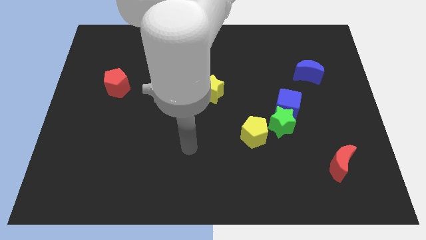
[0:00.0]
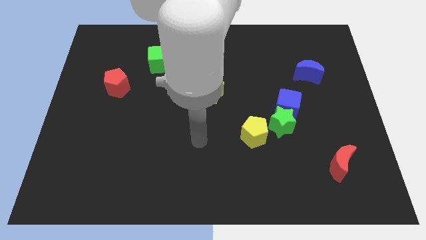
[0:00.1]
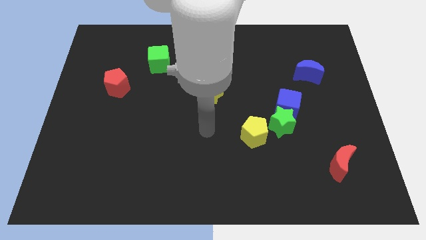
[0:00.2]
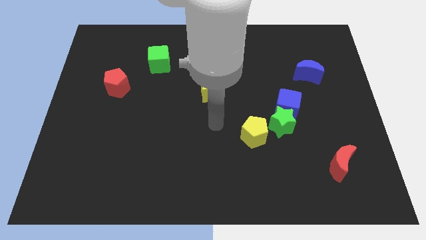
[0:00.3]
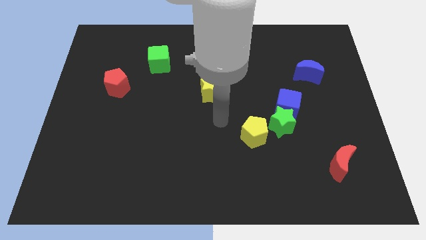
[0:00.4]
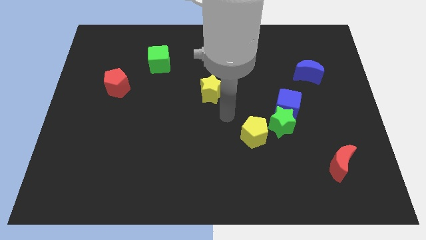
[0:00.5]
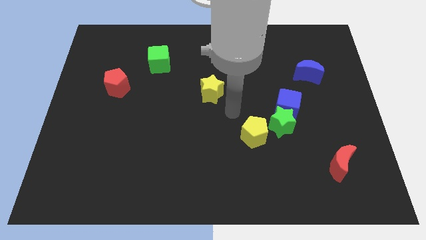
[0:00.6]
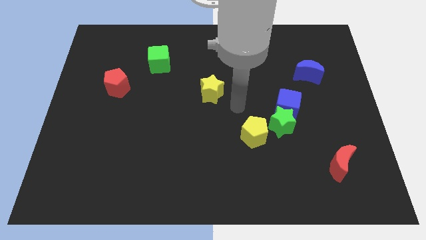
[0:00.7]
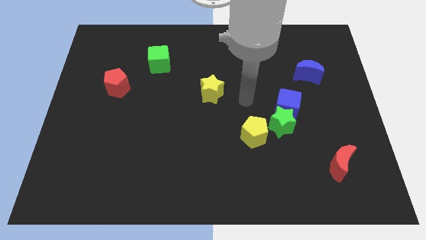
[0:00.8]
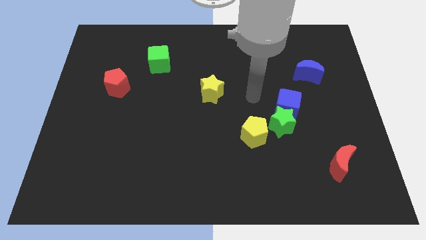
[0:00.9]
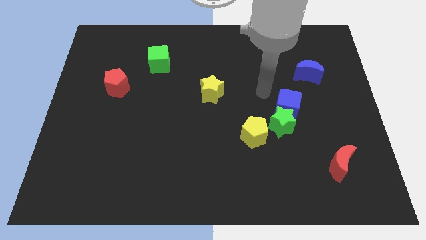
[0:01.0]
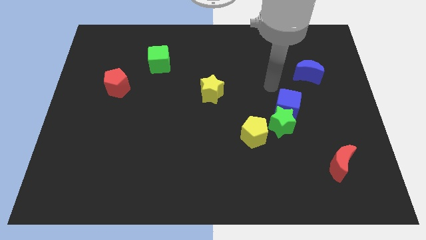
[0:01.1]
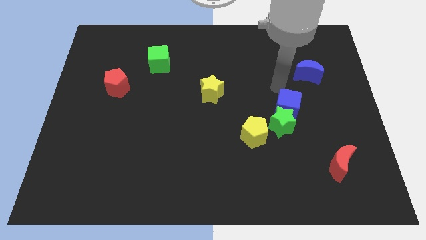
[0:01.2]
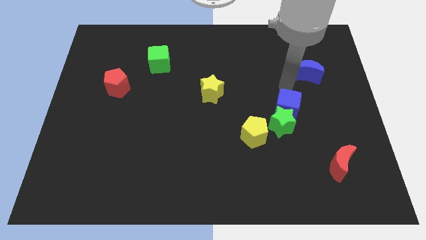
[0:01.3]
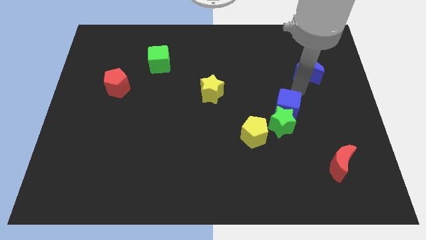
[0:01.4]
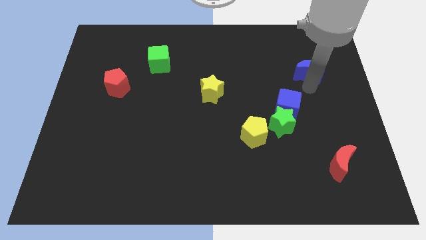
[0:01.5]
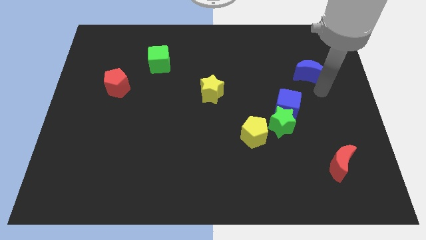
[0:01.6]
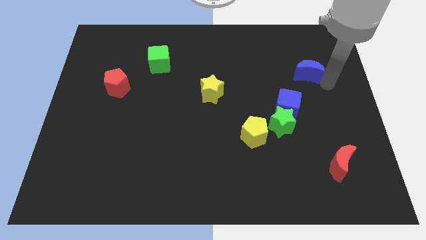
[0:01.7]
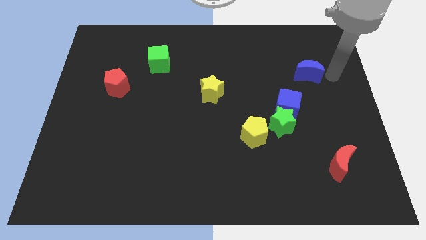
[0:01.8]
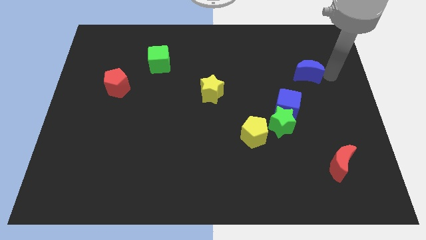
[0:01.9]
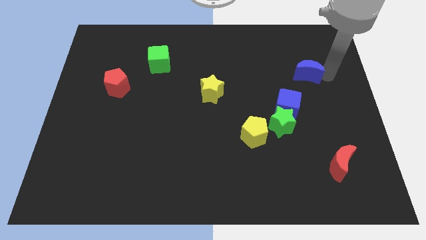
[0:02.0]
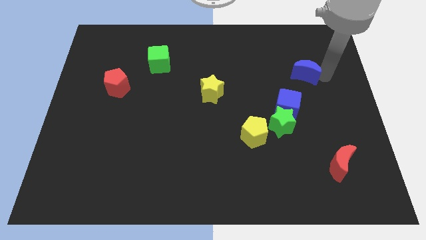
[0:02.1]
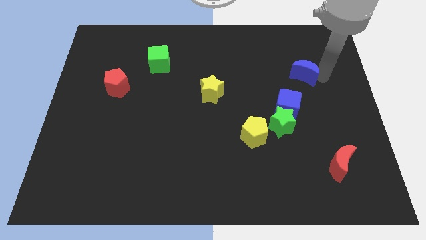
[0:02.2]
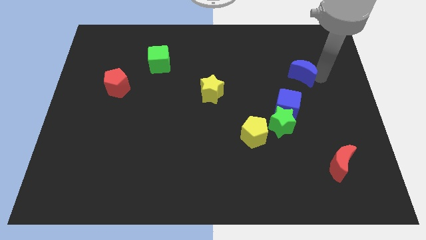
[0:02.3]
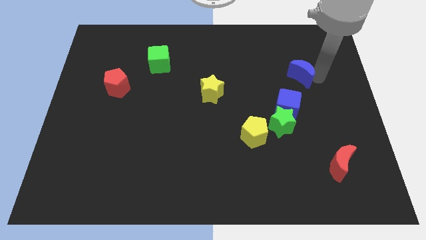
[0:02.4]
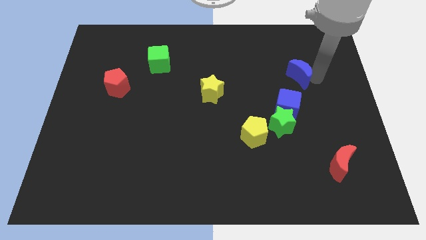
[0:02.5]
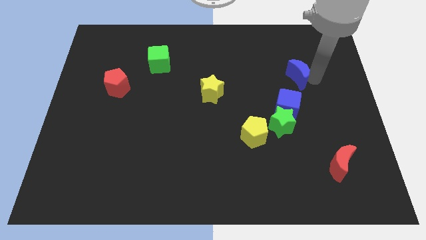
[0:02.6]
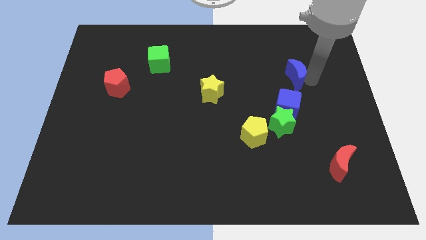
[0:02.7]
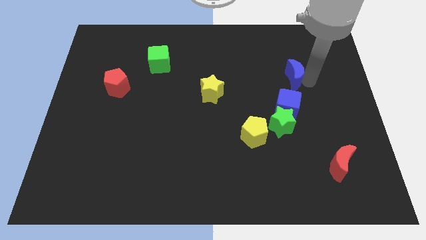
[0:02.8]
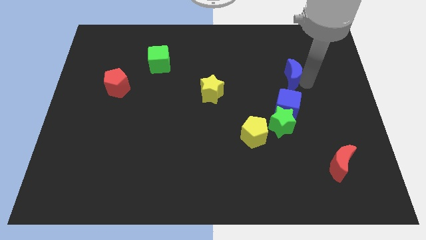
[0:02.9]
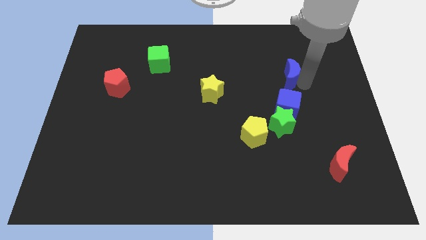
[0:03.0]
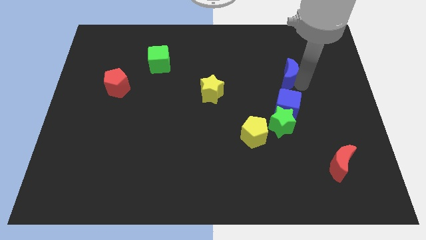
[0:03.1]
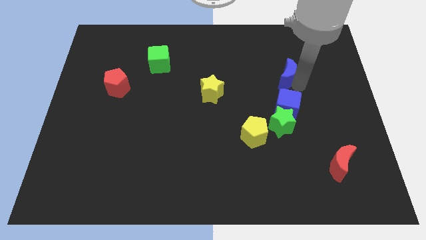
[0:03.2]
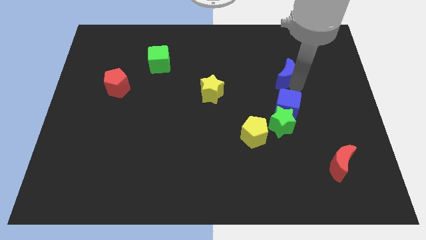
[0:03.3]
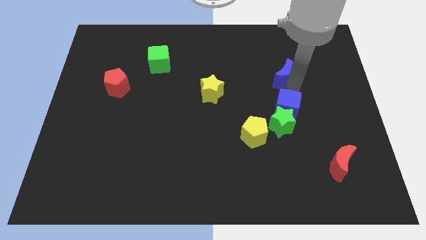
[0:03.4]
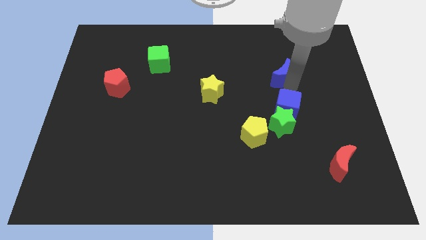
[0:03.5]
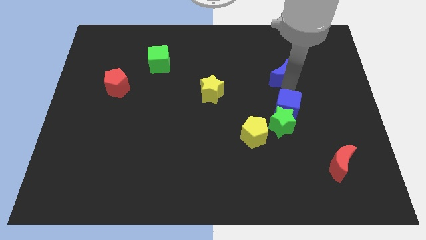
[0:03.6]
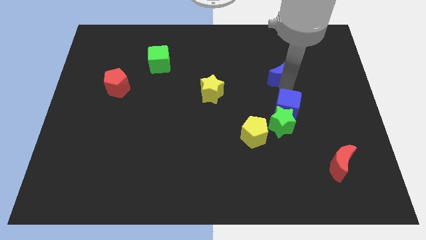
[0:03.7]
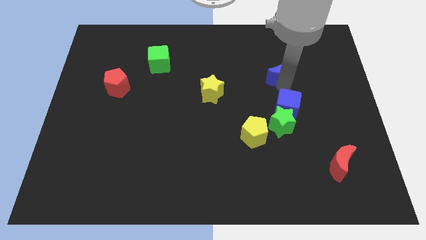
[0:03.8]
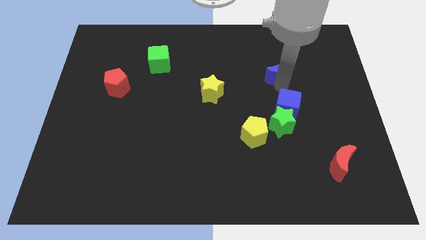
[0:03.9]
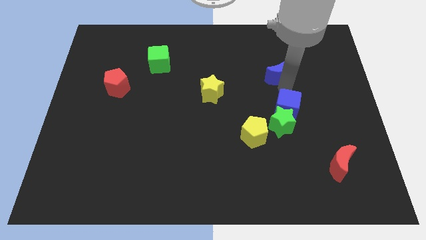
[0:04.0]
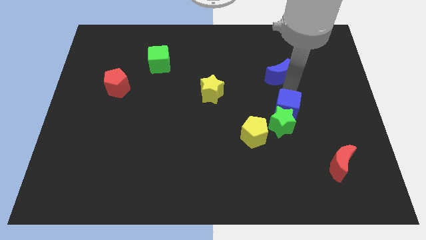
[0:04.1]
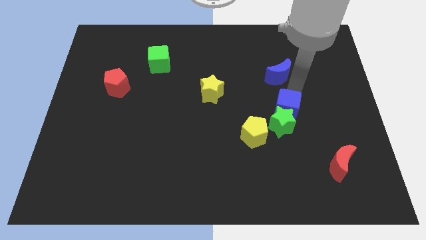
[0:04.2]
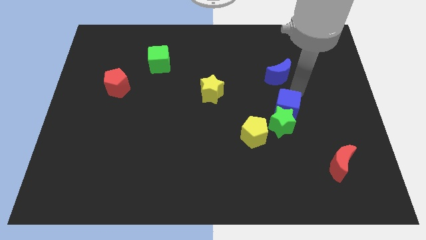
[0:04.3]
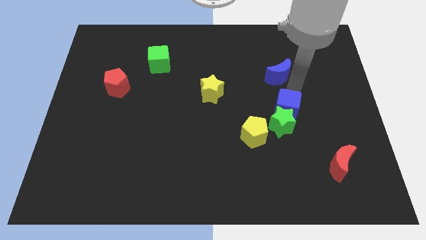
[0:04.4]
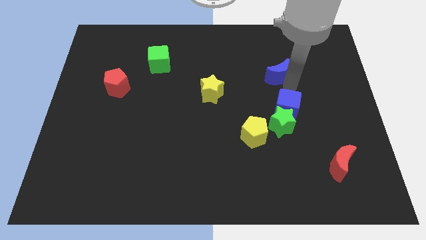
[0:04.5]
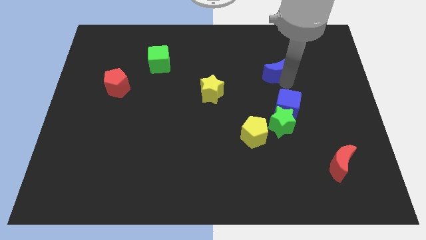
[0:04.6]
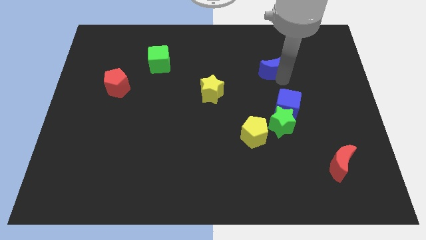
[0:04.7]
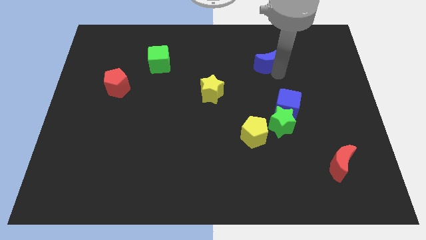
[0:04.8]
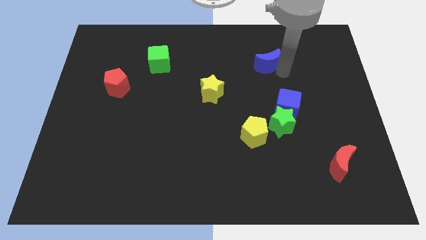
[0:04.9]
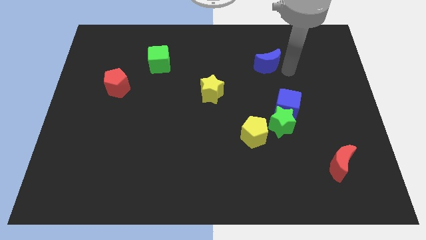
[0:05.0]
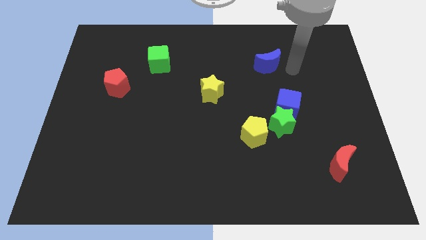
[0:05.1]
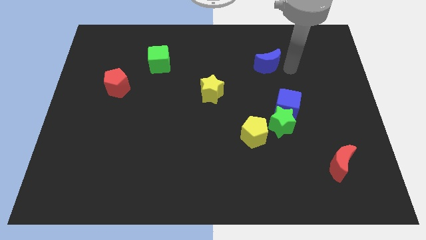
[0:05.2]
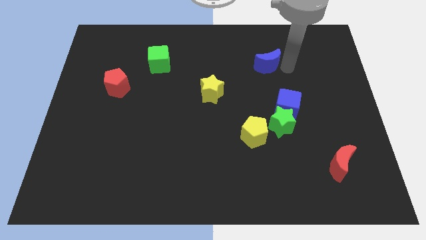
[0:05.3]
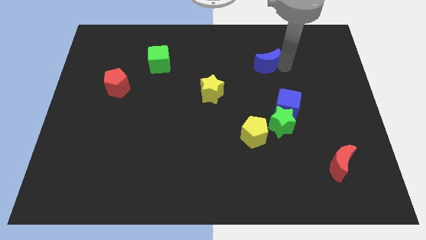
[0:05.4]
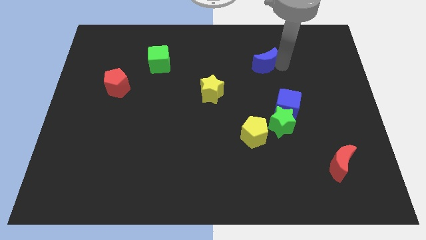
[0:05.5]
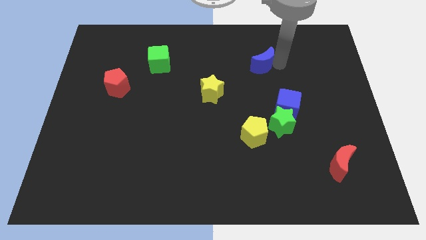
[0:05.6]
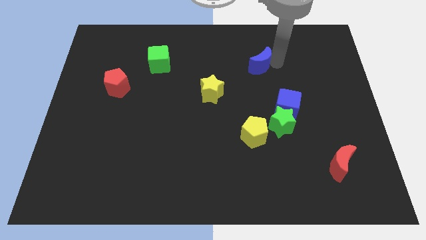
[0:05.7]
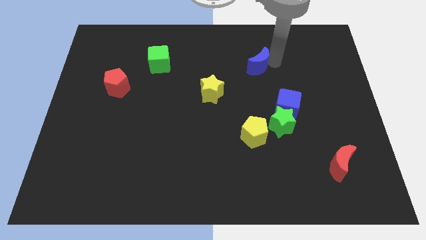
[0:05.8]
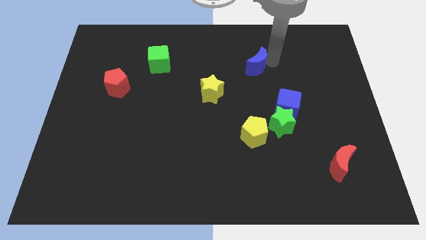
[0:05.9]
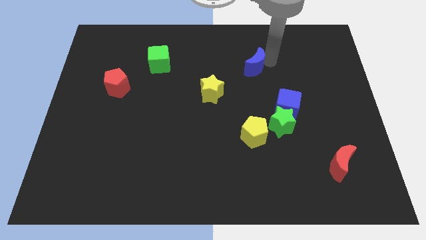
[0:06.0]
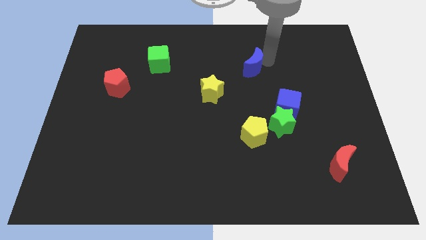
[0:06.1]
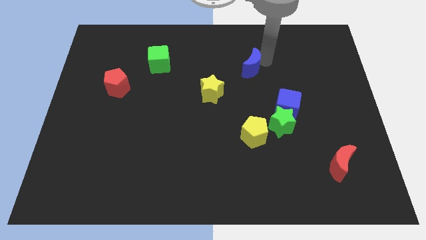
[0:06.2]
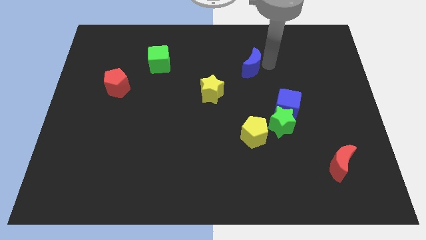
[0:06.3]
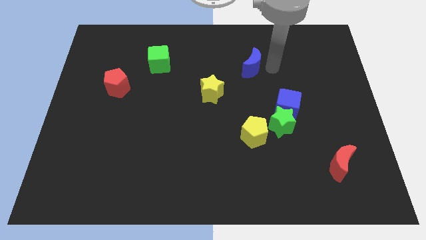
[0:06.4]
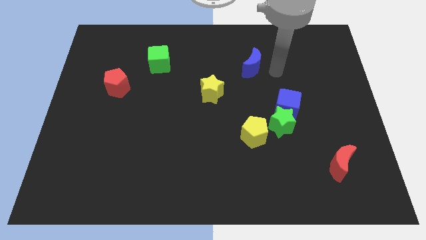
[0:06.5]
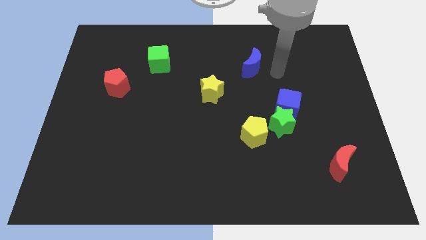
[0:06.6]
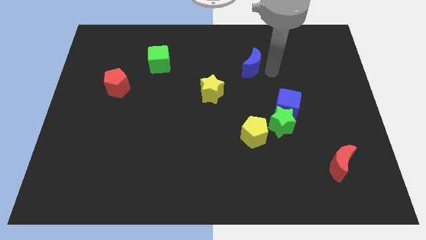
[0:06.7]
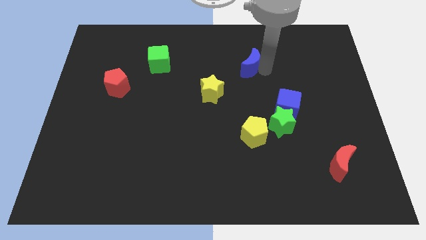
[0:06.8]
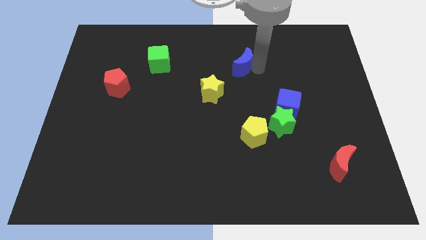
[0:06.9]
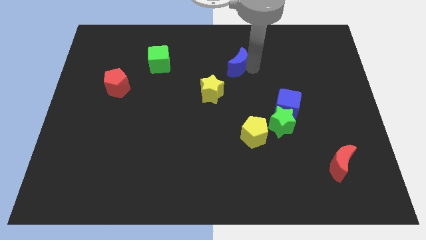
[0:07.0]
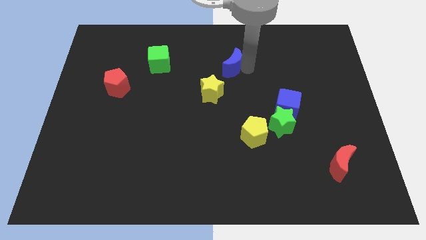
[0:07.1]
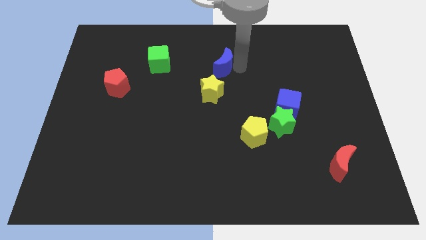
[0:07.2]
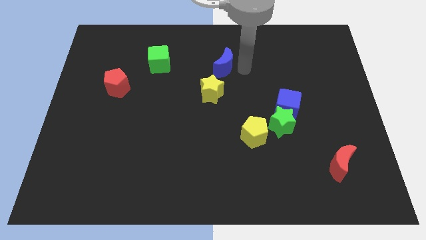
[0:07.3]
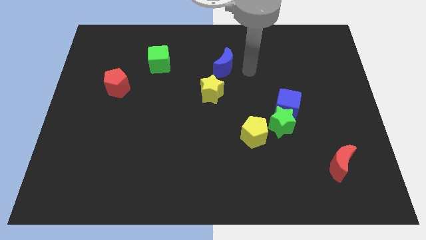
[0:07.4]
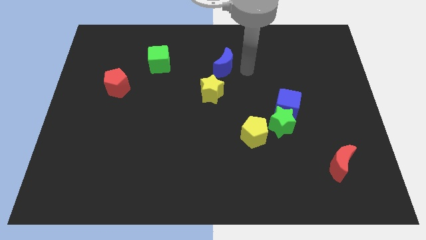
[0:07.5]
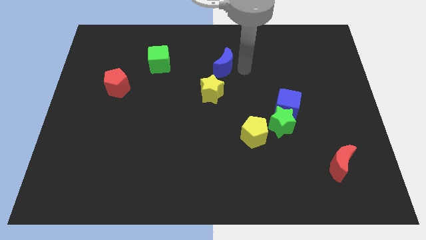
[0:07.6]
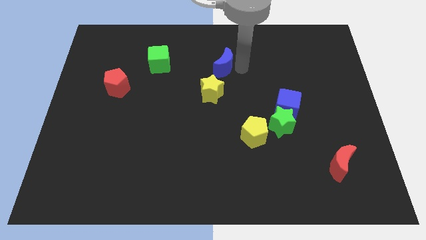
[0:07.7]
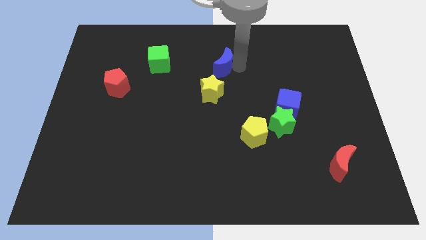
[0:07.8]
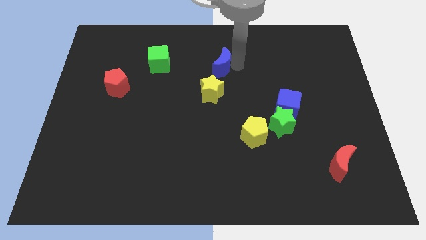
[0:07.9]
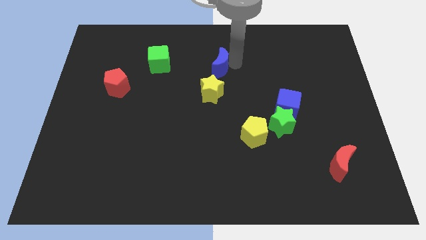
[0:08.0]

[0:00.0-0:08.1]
move the blue moon right of the green cube
